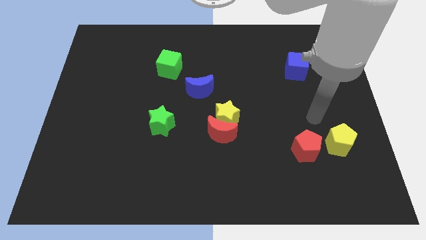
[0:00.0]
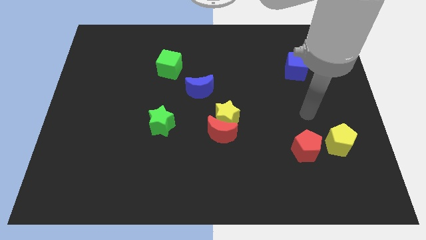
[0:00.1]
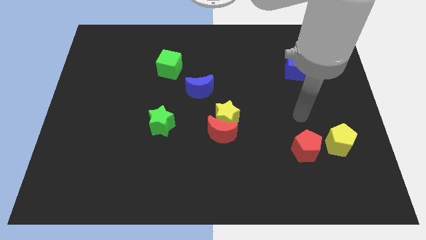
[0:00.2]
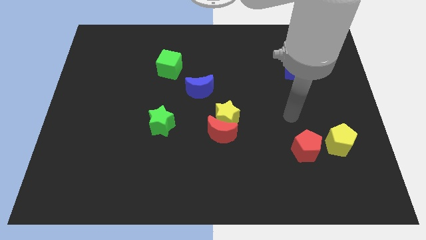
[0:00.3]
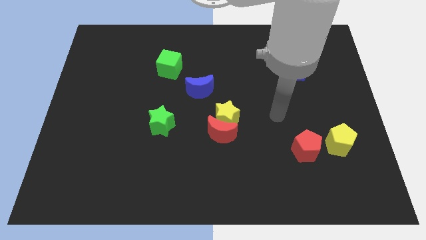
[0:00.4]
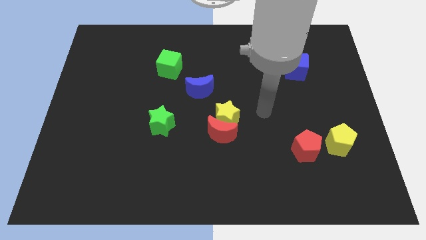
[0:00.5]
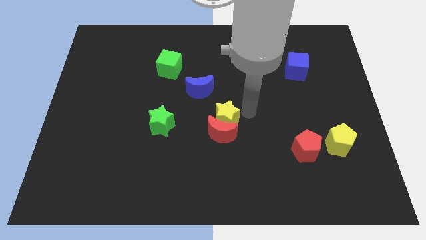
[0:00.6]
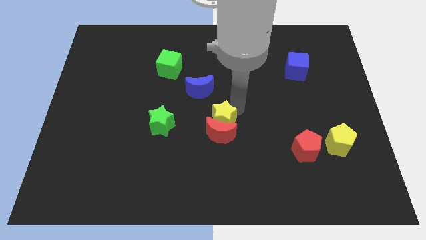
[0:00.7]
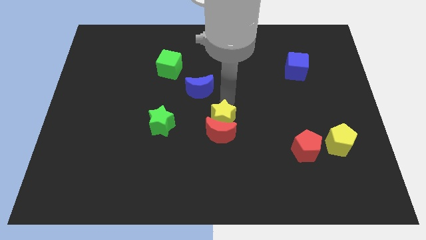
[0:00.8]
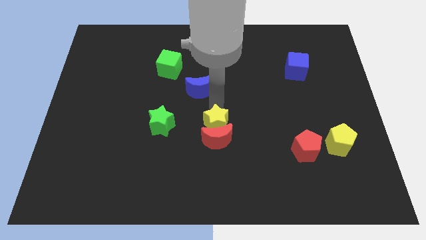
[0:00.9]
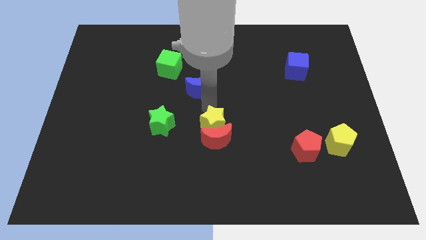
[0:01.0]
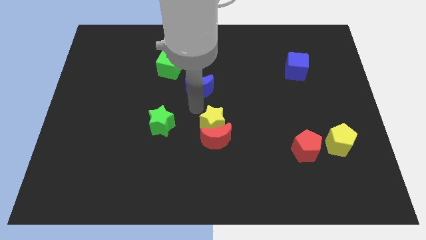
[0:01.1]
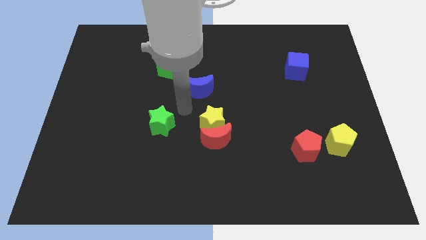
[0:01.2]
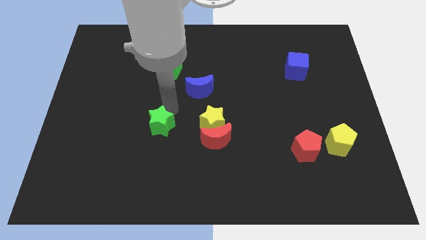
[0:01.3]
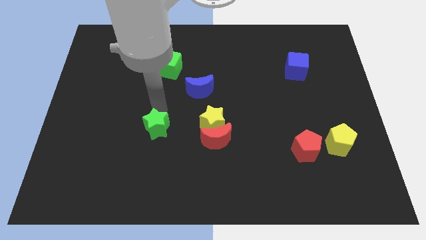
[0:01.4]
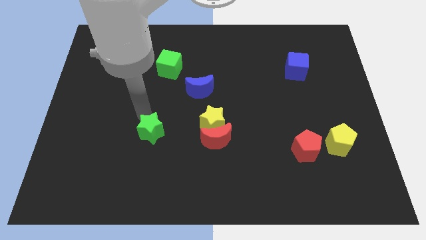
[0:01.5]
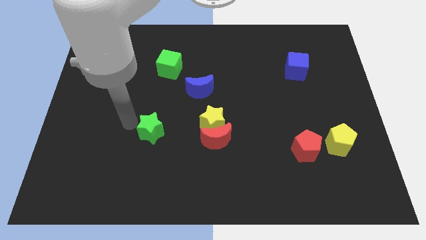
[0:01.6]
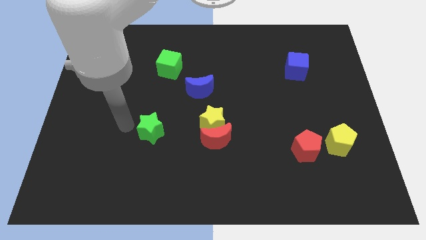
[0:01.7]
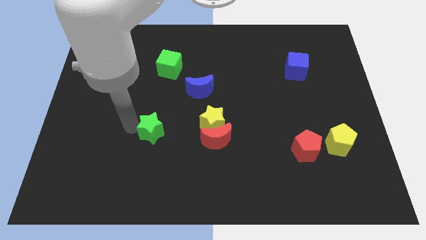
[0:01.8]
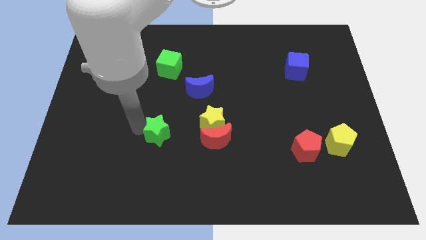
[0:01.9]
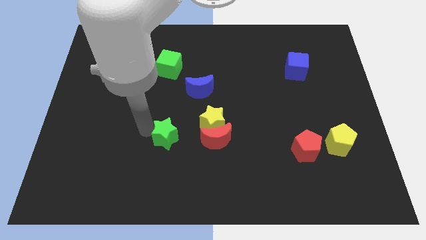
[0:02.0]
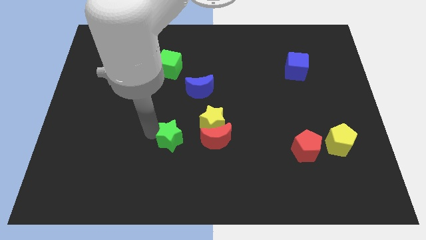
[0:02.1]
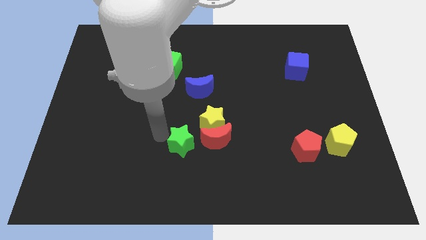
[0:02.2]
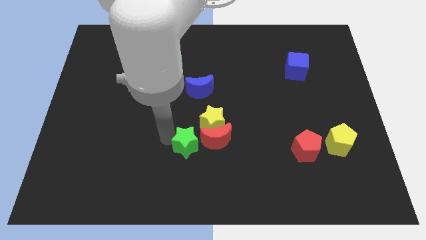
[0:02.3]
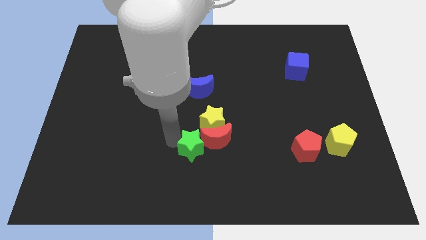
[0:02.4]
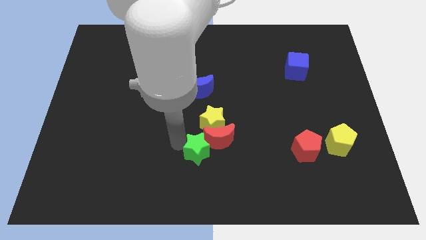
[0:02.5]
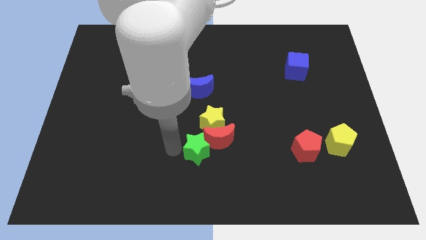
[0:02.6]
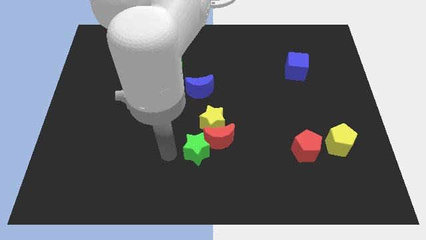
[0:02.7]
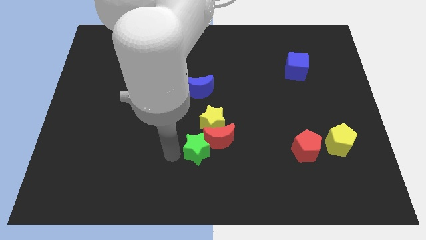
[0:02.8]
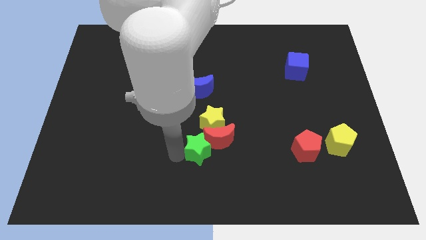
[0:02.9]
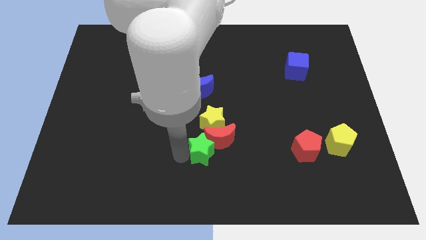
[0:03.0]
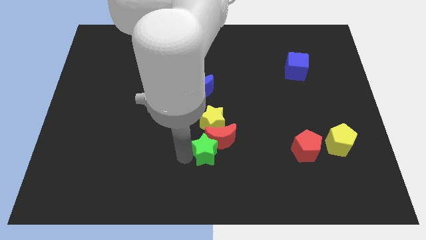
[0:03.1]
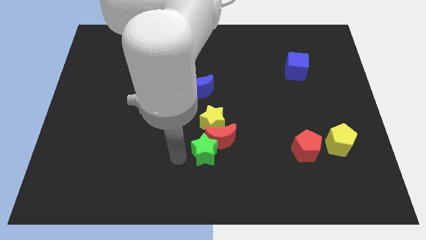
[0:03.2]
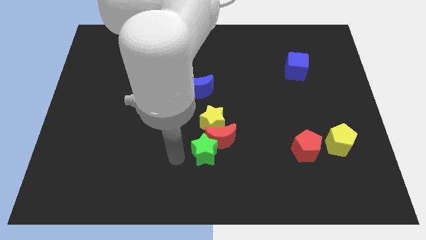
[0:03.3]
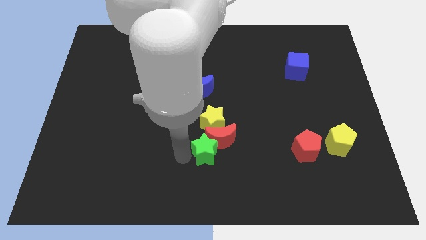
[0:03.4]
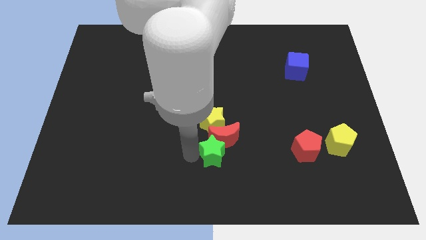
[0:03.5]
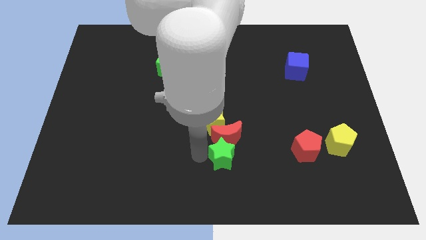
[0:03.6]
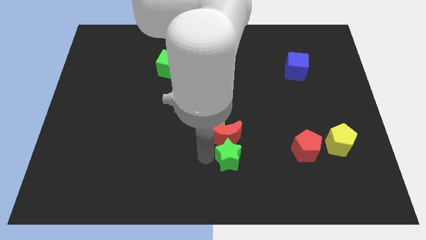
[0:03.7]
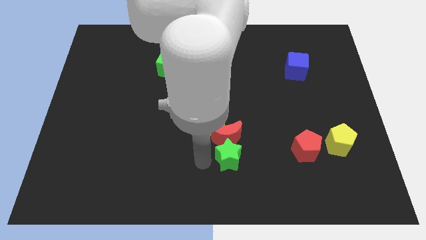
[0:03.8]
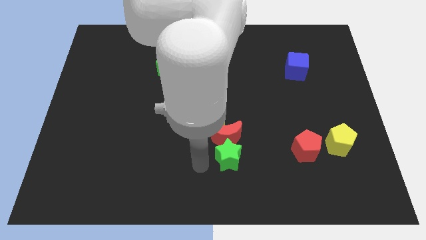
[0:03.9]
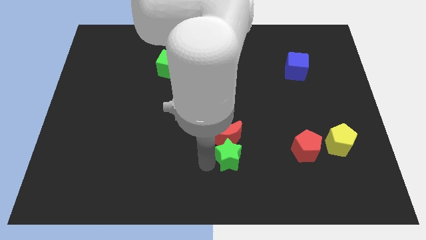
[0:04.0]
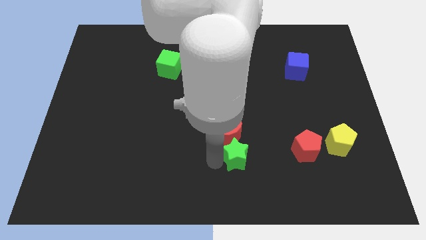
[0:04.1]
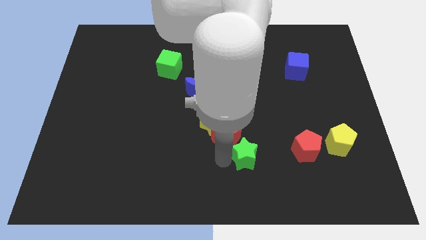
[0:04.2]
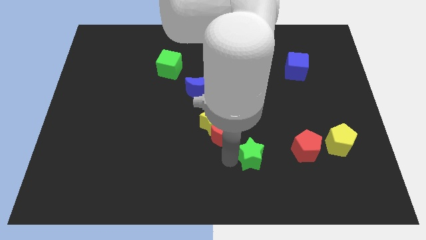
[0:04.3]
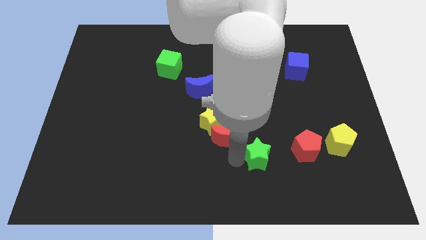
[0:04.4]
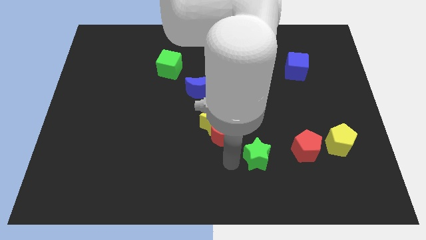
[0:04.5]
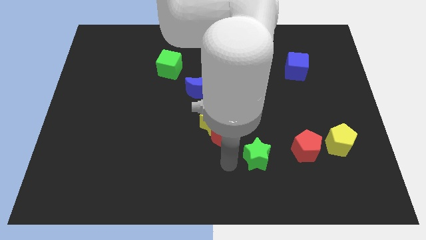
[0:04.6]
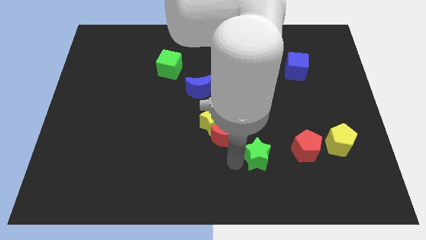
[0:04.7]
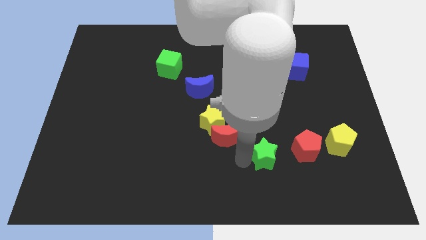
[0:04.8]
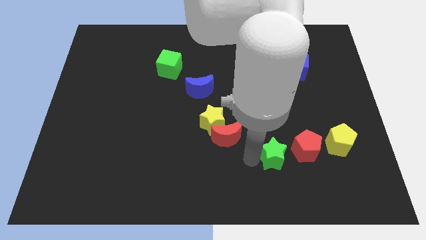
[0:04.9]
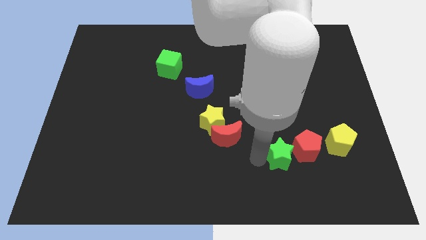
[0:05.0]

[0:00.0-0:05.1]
push the green star to the red pentagon

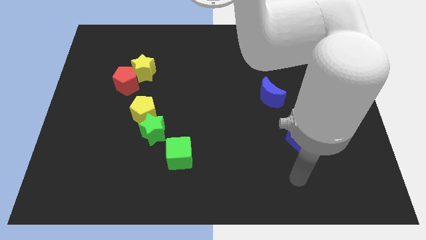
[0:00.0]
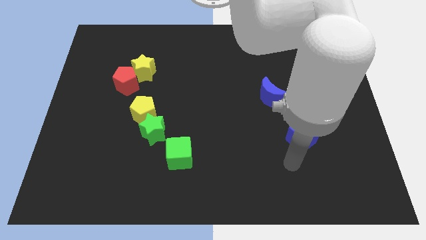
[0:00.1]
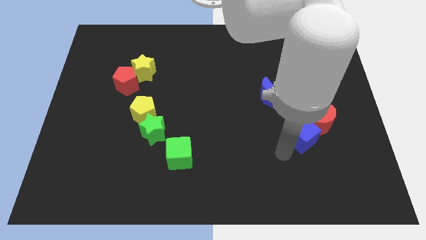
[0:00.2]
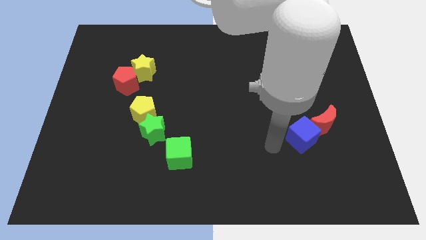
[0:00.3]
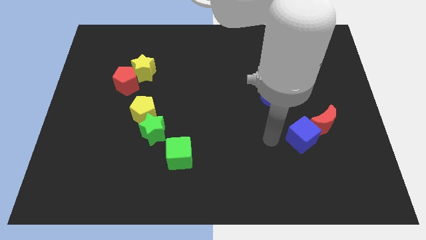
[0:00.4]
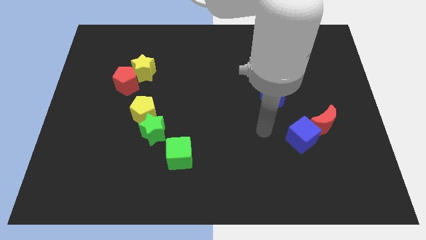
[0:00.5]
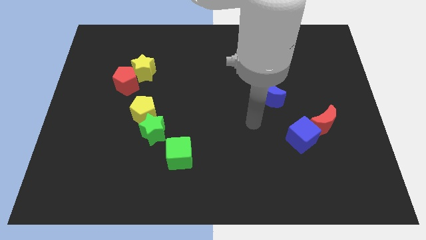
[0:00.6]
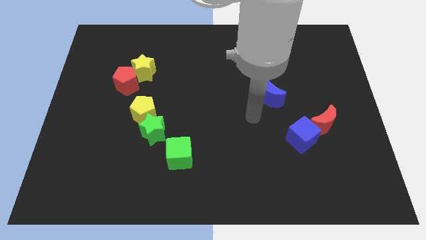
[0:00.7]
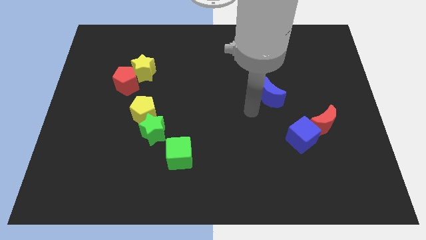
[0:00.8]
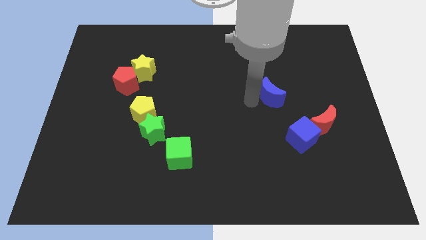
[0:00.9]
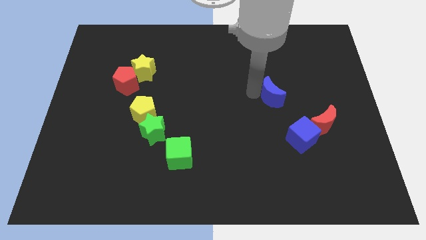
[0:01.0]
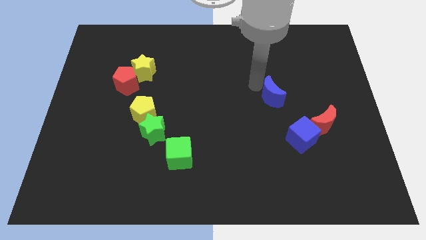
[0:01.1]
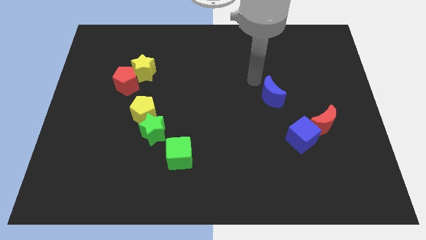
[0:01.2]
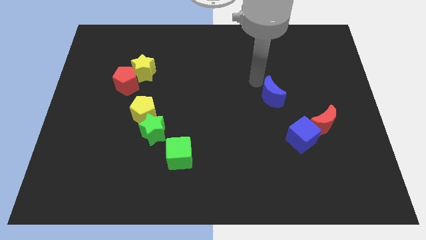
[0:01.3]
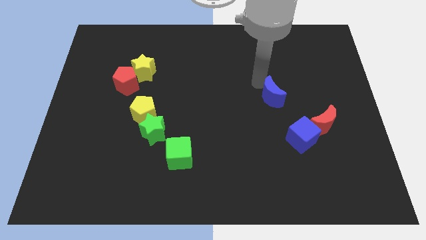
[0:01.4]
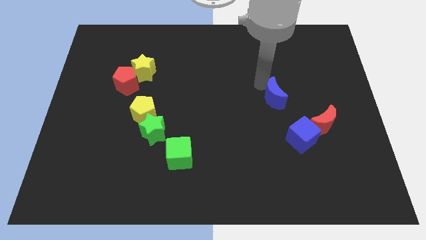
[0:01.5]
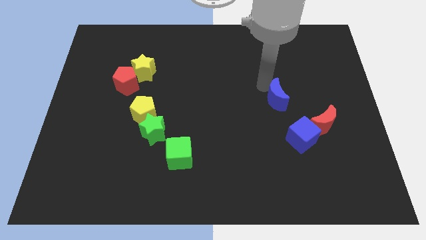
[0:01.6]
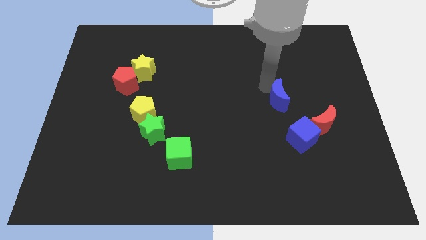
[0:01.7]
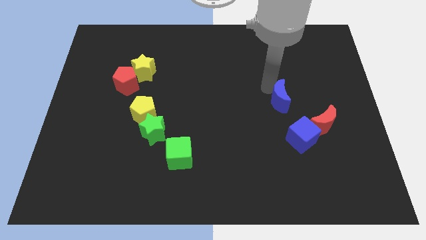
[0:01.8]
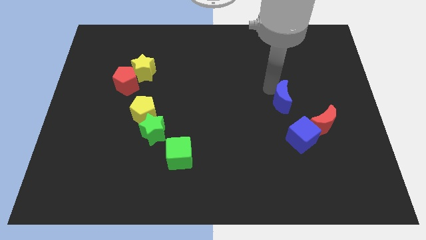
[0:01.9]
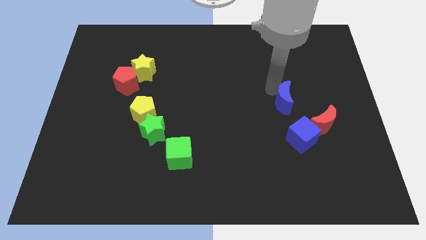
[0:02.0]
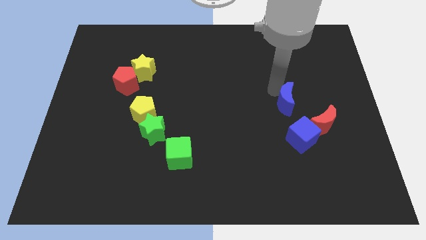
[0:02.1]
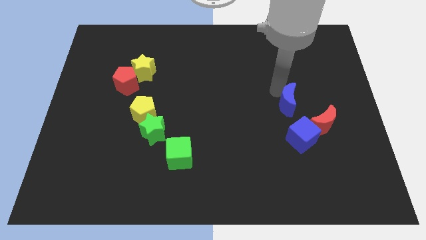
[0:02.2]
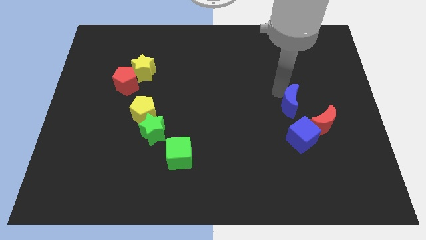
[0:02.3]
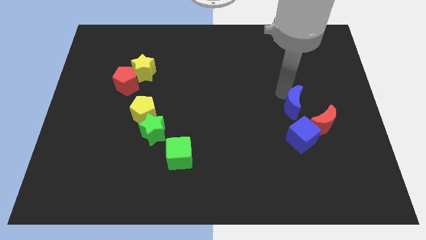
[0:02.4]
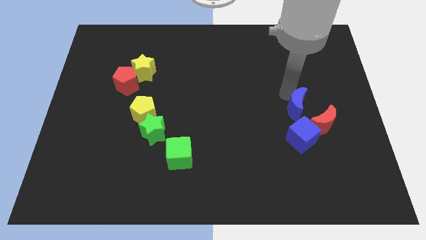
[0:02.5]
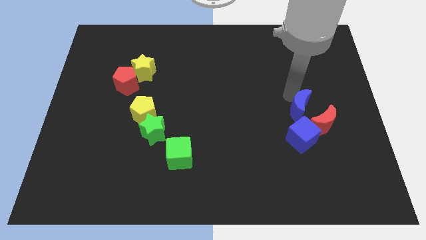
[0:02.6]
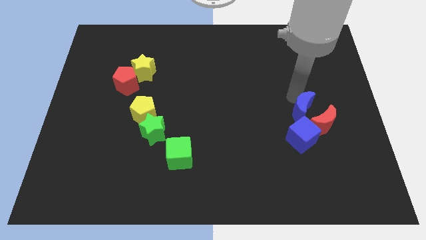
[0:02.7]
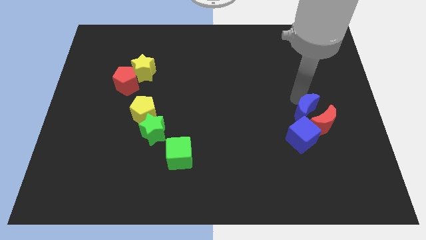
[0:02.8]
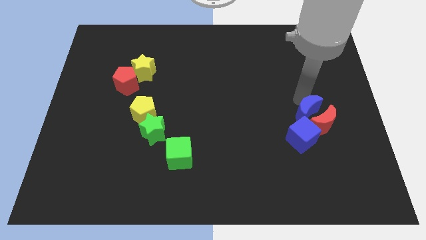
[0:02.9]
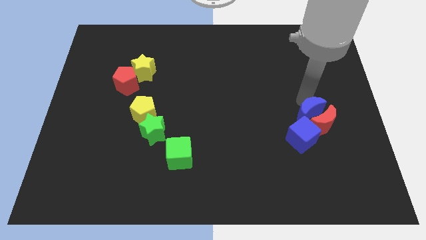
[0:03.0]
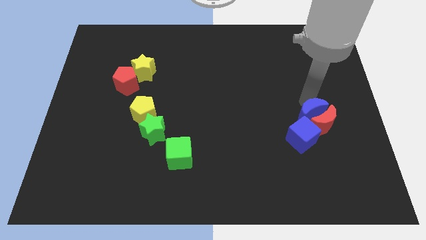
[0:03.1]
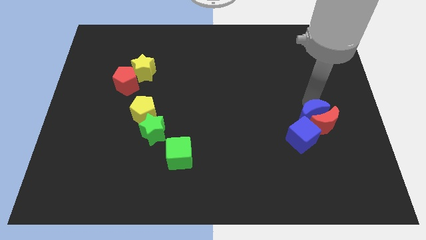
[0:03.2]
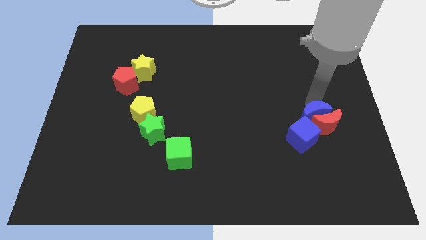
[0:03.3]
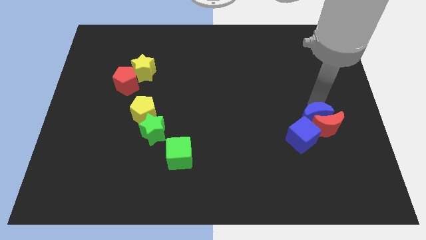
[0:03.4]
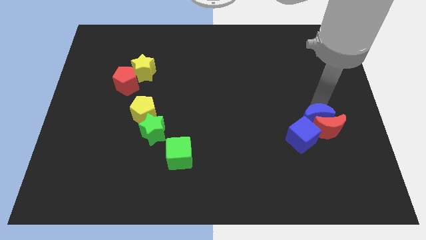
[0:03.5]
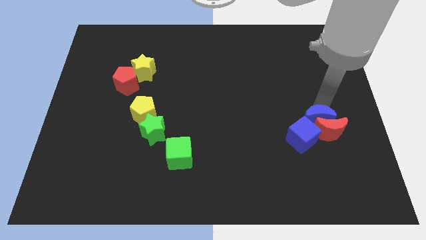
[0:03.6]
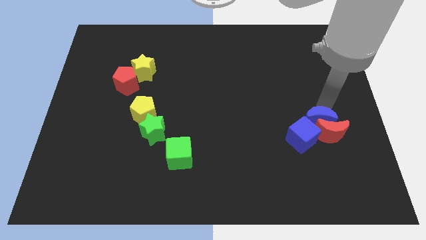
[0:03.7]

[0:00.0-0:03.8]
put the blue moon to the blue cube
